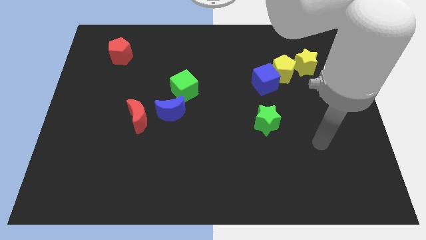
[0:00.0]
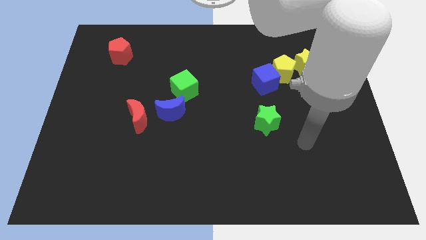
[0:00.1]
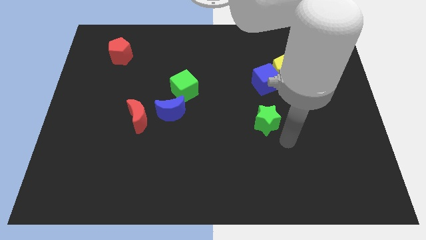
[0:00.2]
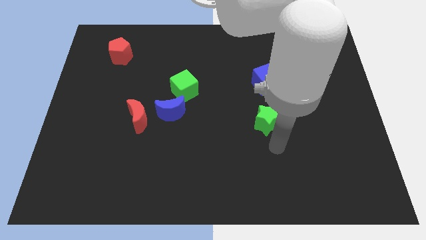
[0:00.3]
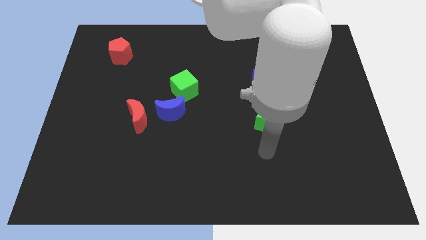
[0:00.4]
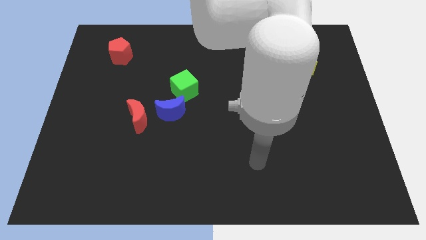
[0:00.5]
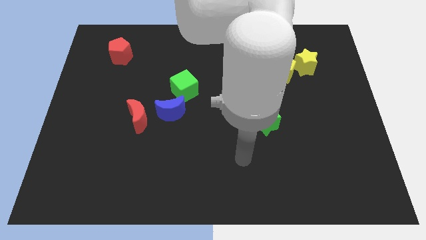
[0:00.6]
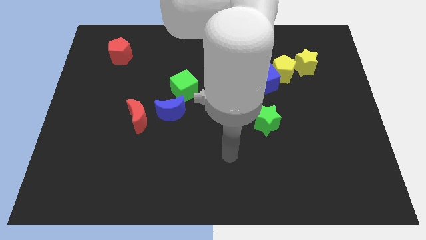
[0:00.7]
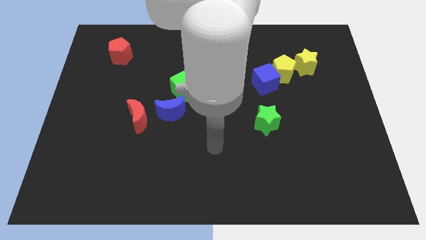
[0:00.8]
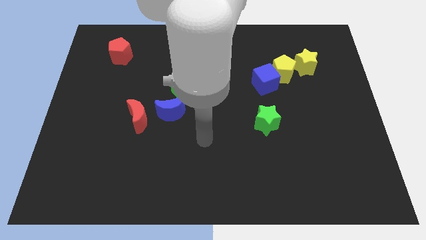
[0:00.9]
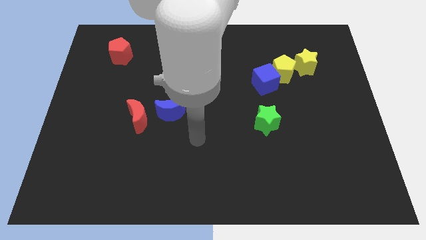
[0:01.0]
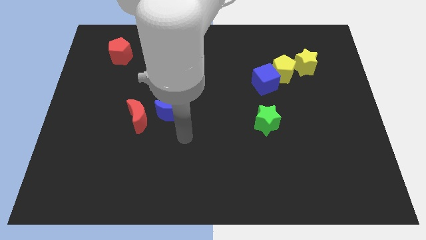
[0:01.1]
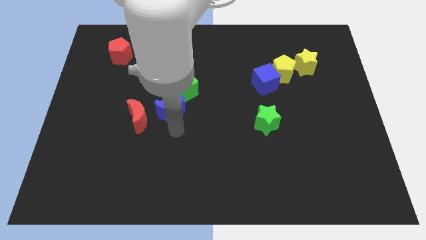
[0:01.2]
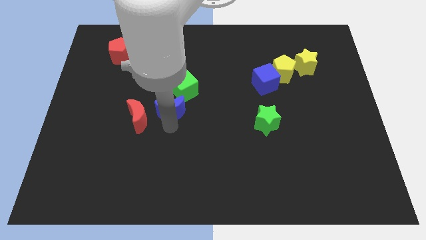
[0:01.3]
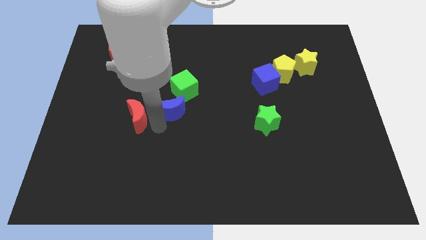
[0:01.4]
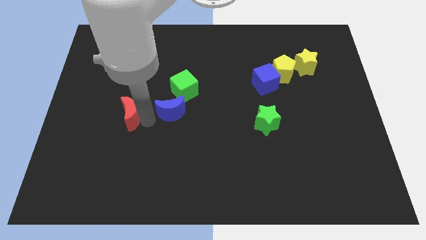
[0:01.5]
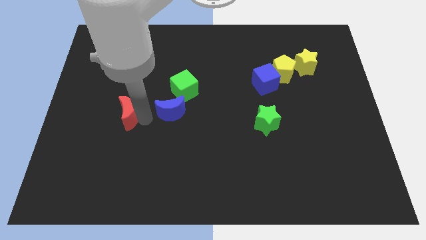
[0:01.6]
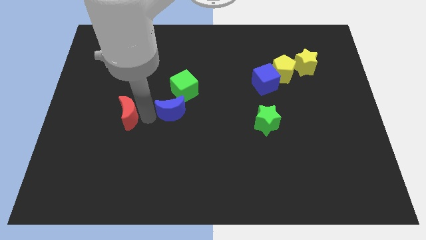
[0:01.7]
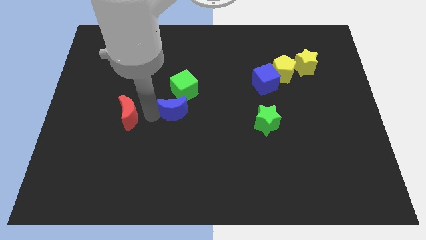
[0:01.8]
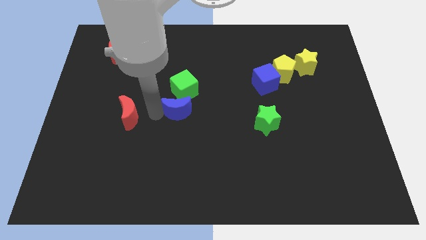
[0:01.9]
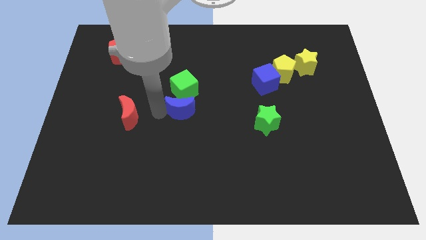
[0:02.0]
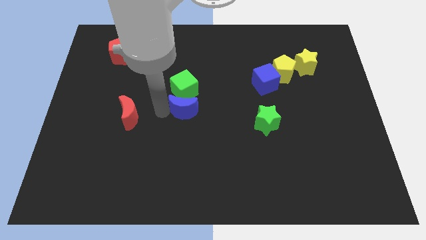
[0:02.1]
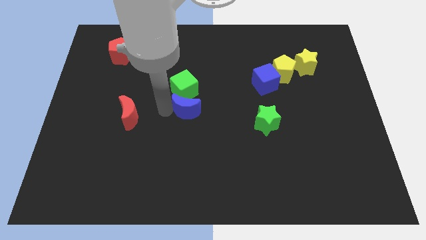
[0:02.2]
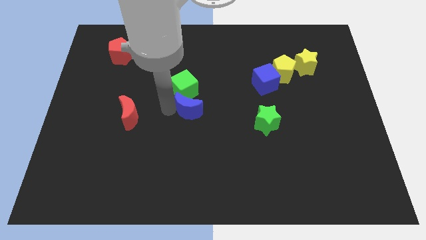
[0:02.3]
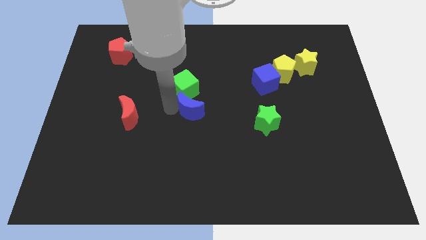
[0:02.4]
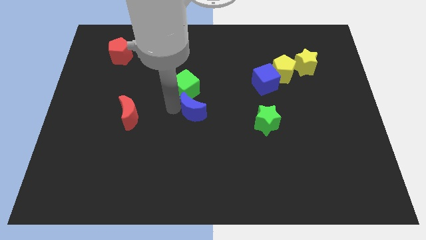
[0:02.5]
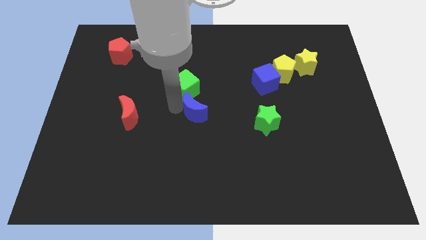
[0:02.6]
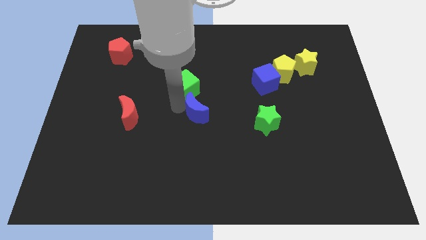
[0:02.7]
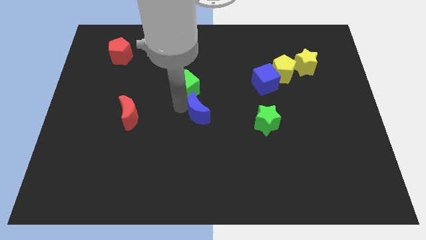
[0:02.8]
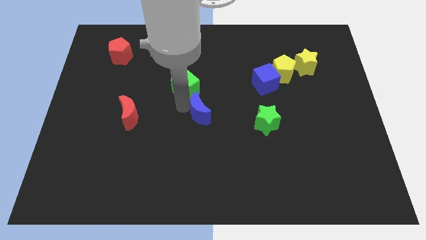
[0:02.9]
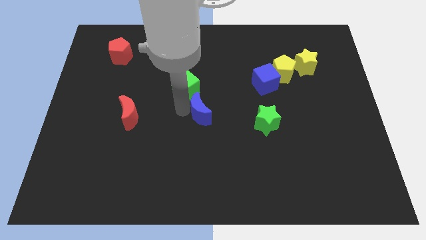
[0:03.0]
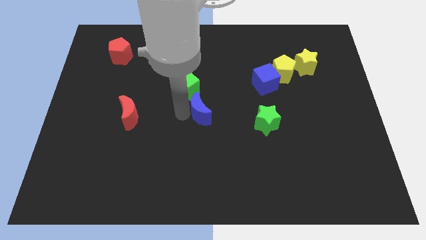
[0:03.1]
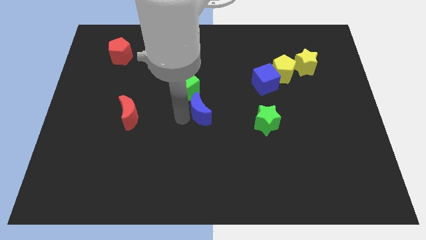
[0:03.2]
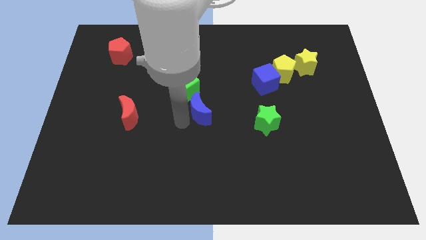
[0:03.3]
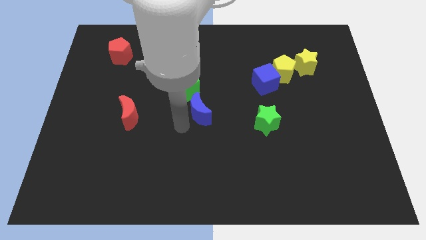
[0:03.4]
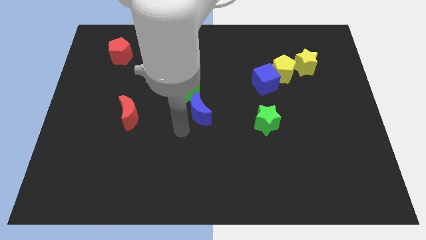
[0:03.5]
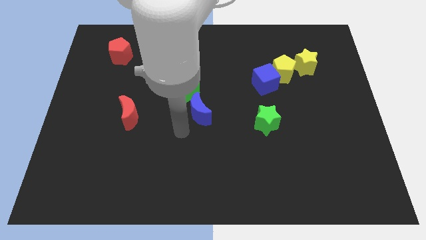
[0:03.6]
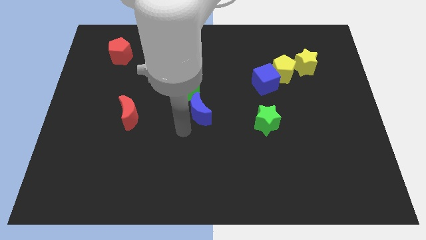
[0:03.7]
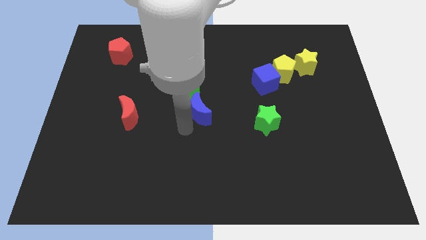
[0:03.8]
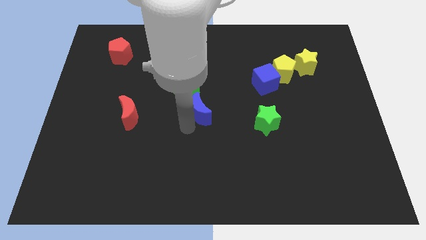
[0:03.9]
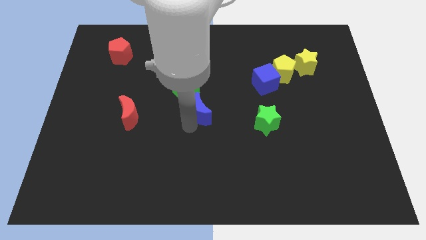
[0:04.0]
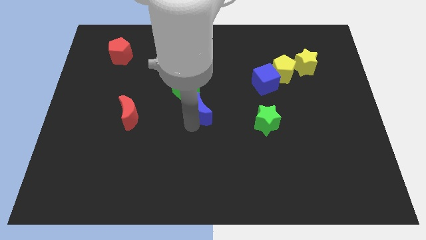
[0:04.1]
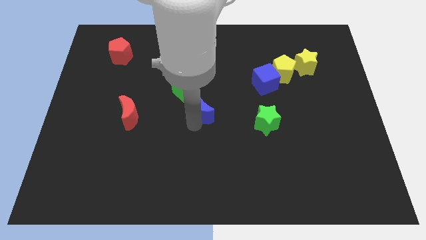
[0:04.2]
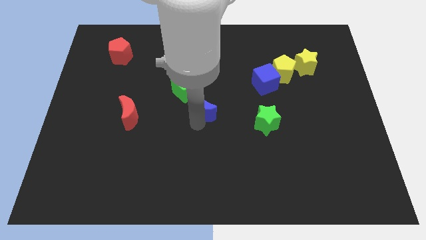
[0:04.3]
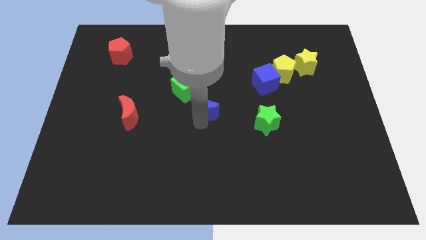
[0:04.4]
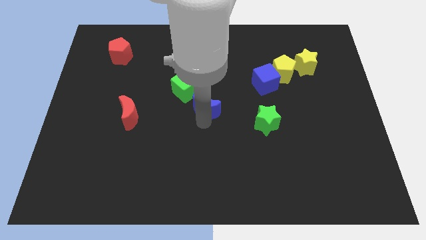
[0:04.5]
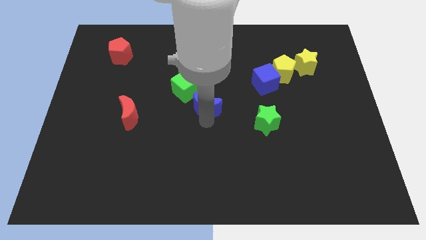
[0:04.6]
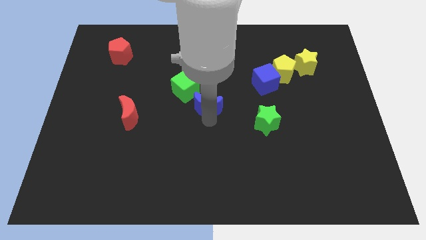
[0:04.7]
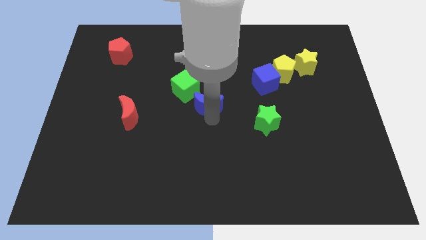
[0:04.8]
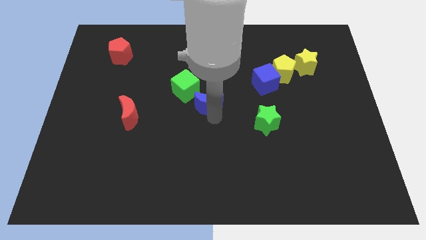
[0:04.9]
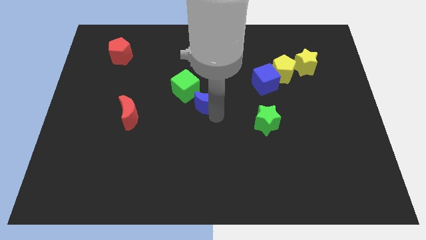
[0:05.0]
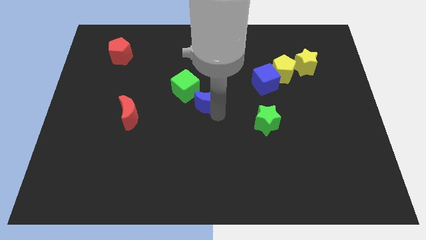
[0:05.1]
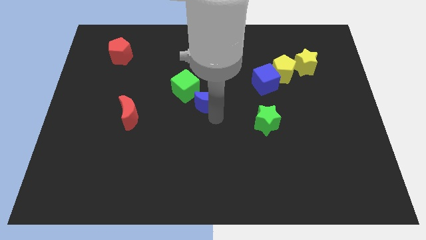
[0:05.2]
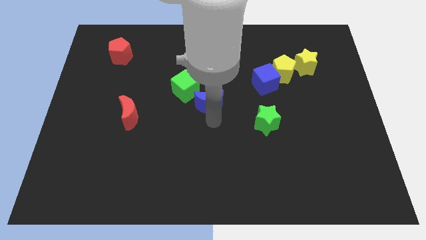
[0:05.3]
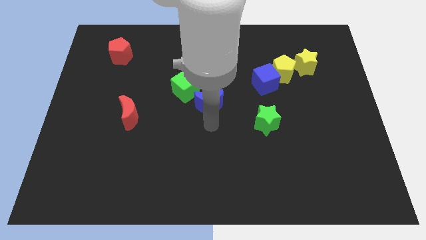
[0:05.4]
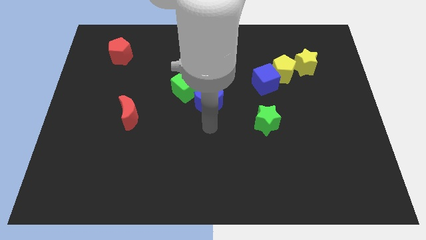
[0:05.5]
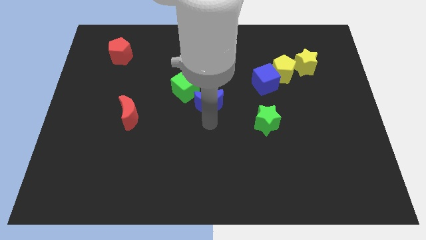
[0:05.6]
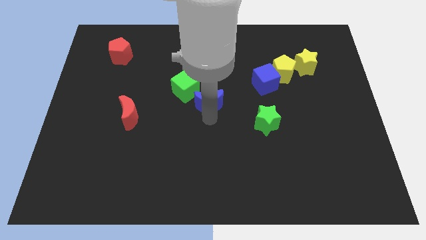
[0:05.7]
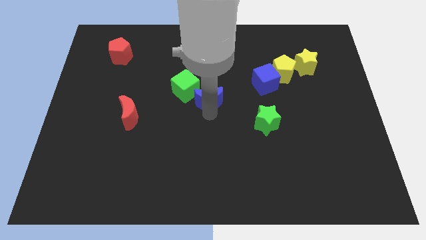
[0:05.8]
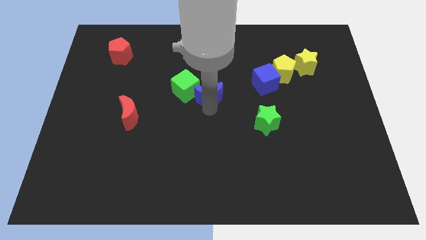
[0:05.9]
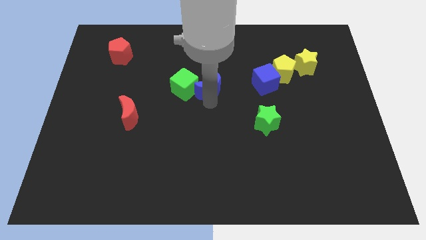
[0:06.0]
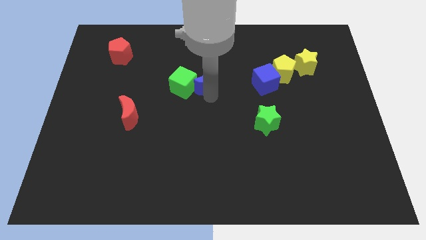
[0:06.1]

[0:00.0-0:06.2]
put the blue moon to the top right side of the green cube

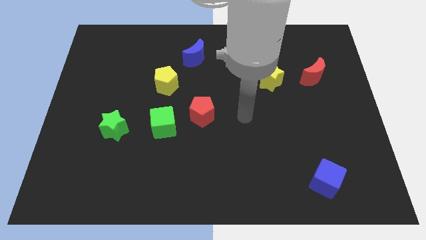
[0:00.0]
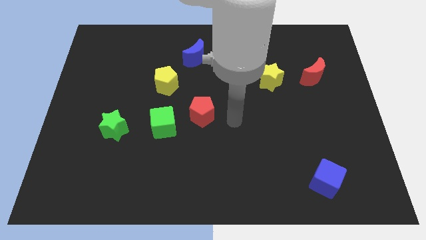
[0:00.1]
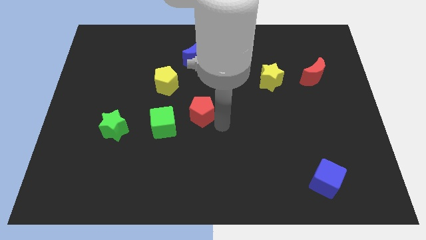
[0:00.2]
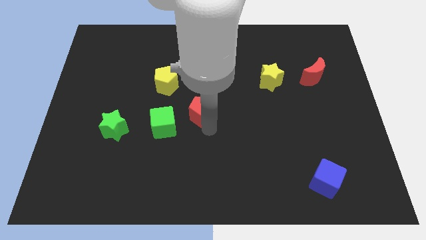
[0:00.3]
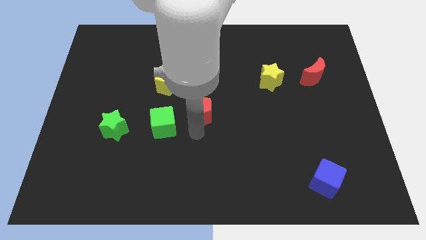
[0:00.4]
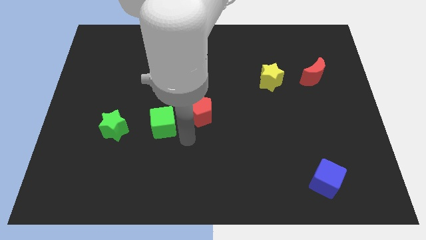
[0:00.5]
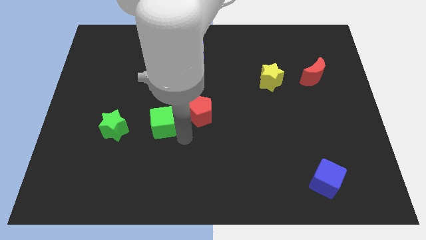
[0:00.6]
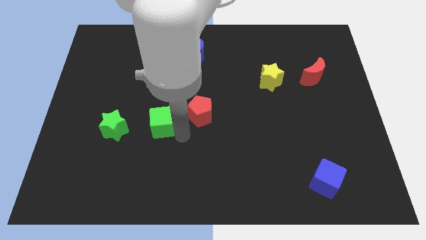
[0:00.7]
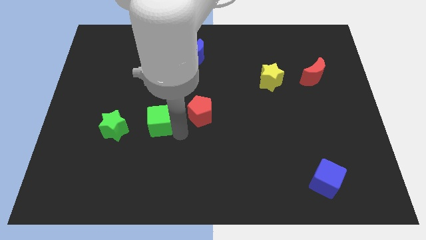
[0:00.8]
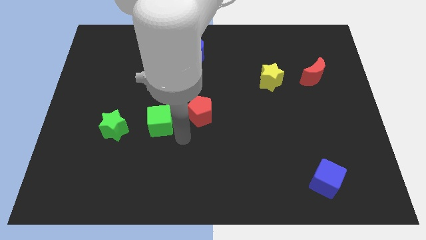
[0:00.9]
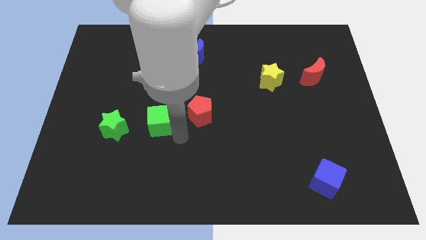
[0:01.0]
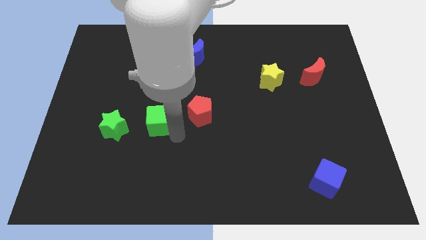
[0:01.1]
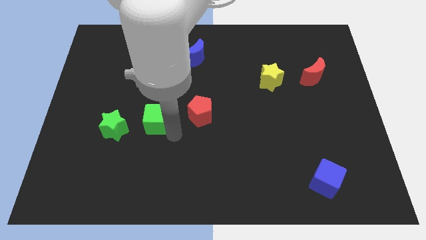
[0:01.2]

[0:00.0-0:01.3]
slide the green cube to the top right of the green star
